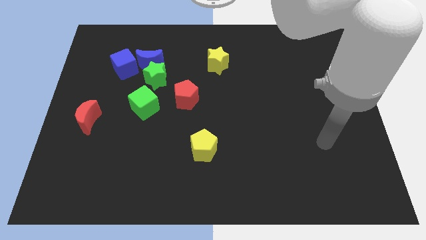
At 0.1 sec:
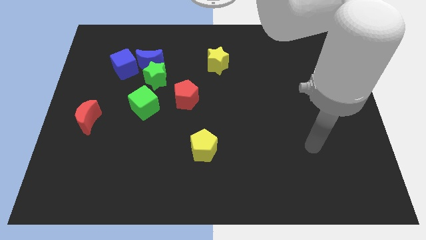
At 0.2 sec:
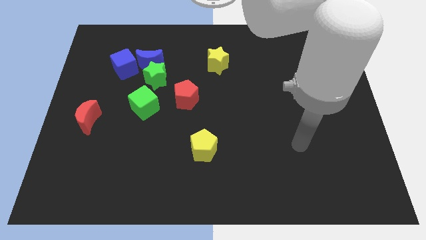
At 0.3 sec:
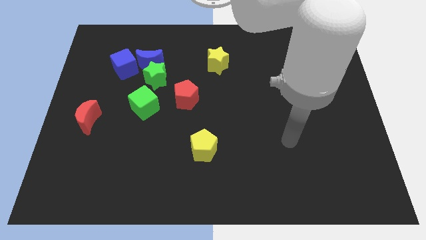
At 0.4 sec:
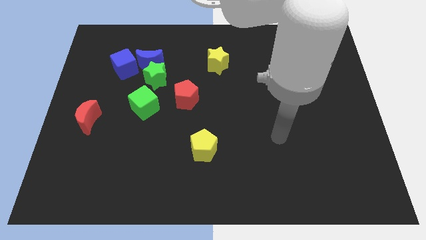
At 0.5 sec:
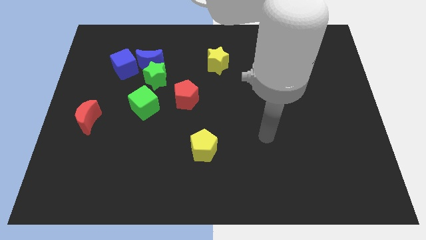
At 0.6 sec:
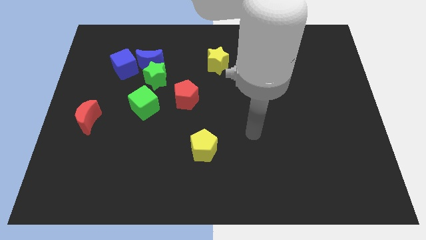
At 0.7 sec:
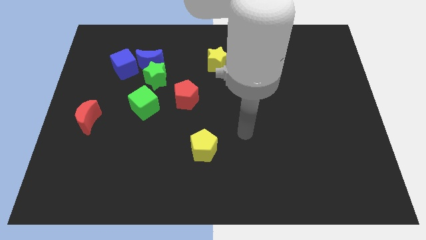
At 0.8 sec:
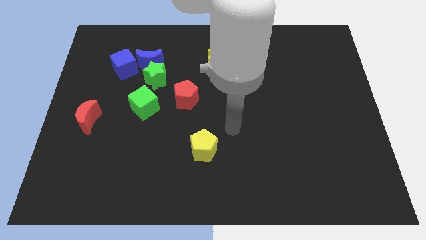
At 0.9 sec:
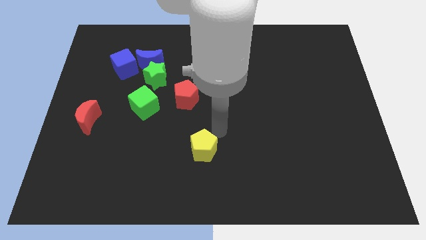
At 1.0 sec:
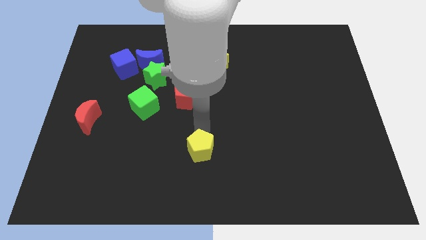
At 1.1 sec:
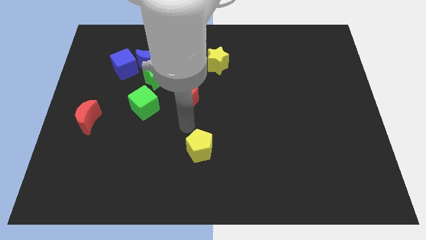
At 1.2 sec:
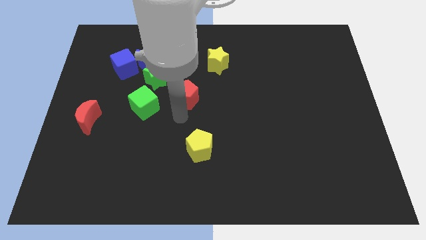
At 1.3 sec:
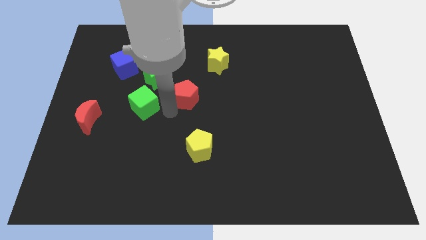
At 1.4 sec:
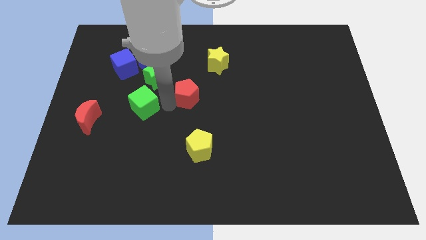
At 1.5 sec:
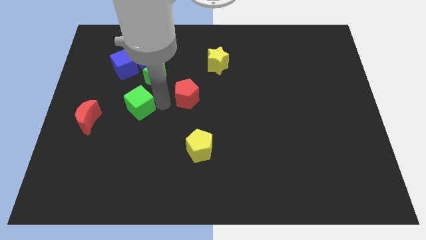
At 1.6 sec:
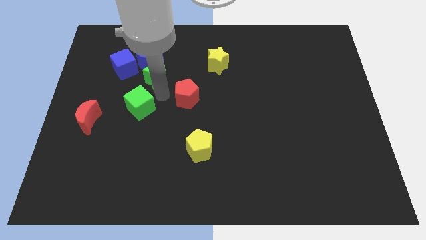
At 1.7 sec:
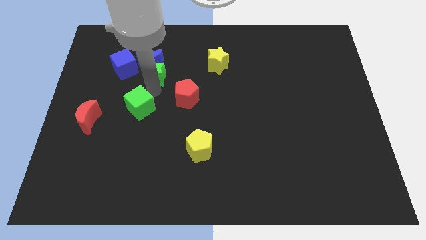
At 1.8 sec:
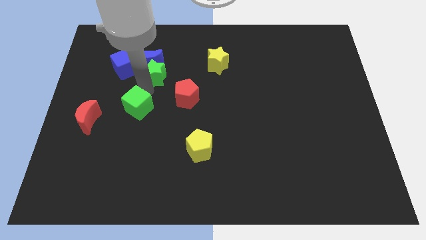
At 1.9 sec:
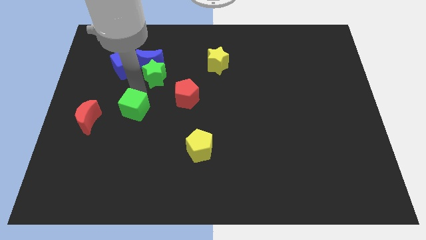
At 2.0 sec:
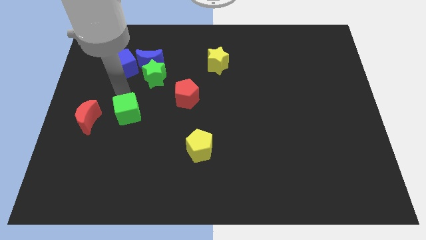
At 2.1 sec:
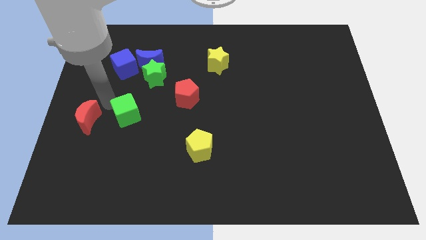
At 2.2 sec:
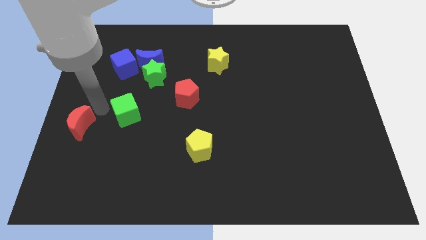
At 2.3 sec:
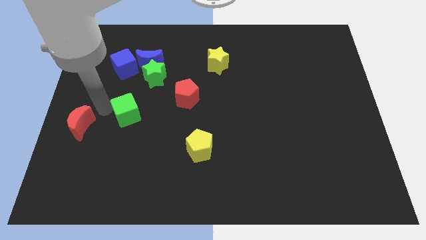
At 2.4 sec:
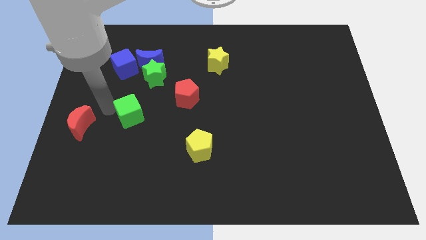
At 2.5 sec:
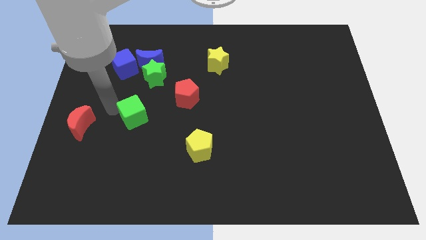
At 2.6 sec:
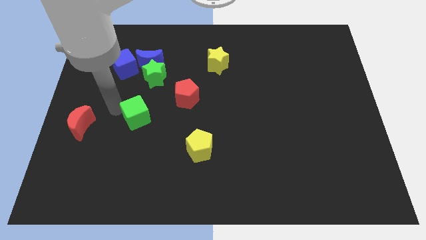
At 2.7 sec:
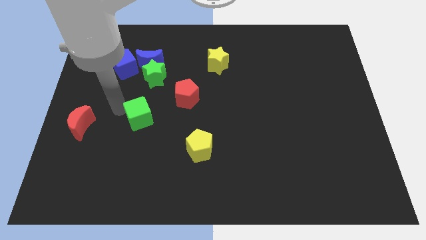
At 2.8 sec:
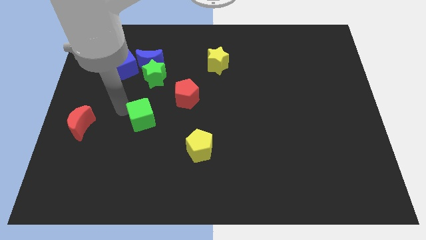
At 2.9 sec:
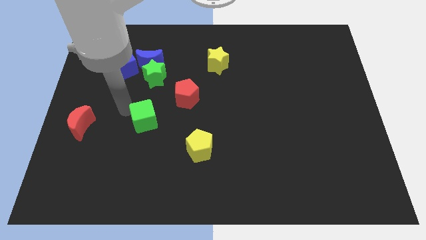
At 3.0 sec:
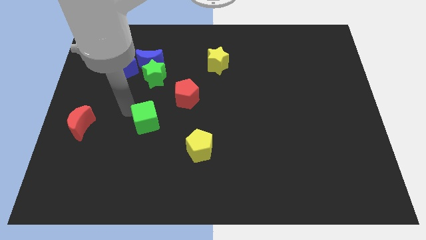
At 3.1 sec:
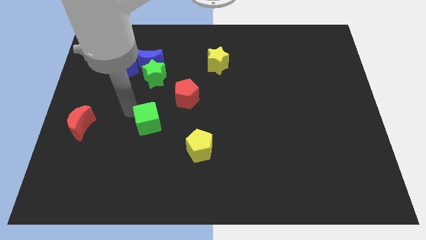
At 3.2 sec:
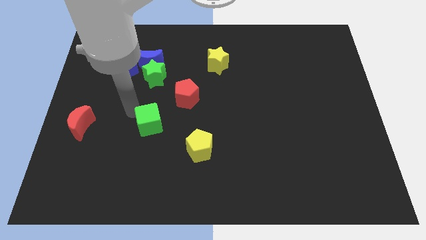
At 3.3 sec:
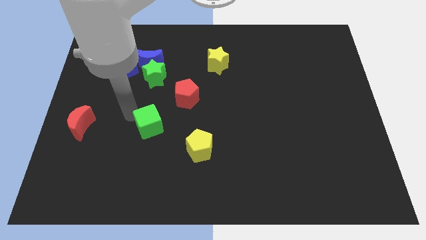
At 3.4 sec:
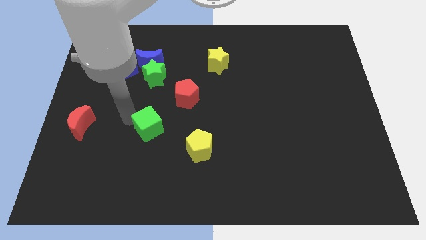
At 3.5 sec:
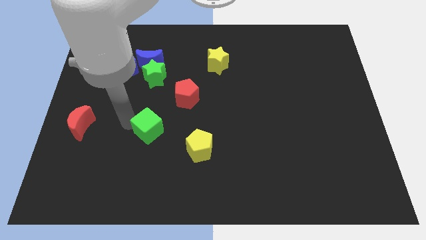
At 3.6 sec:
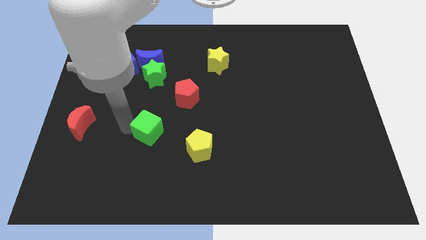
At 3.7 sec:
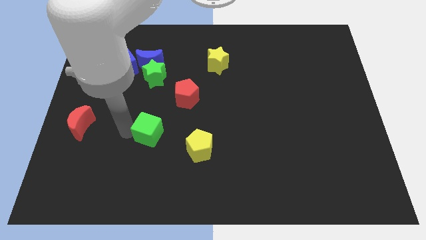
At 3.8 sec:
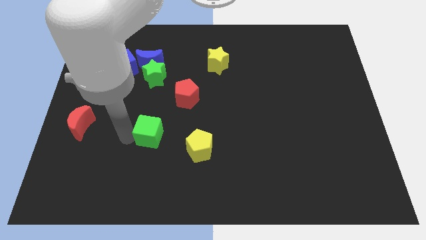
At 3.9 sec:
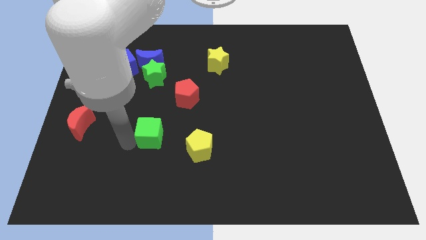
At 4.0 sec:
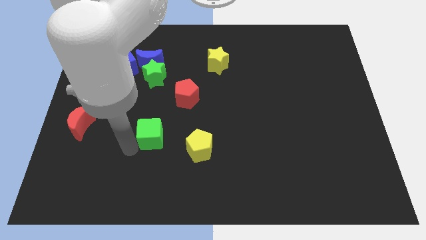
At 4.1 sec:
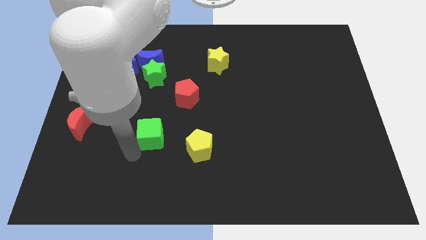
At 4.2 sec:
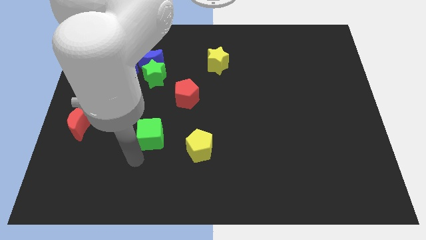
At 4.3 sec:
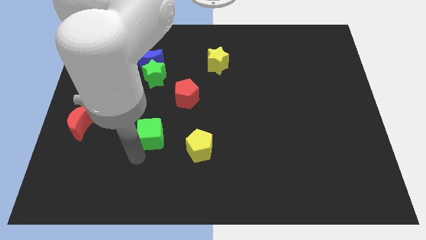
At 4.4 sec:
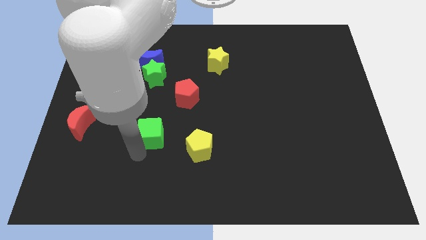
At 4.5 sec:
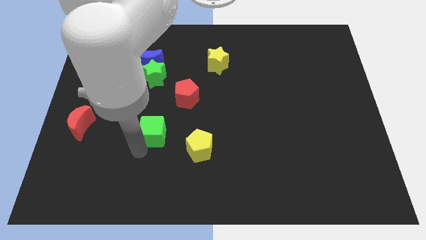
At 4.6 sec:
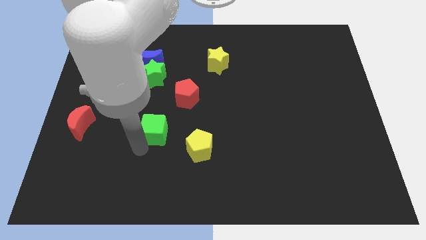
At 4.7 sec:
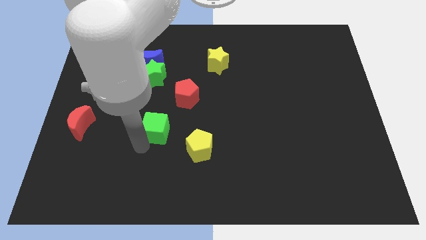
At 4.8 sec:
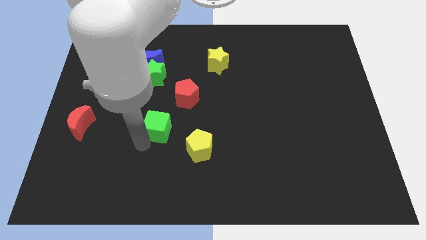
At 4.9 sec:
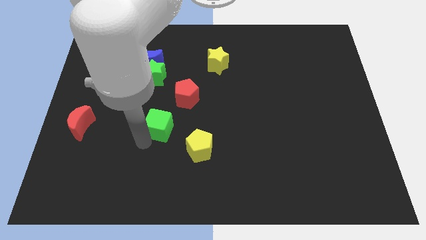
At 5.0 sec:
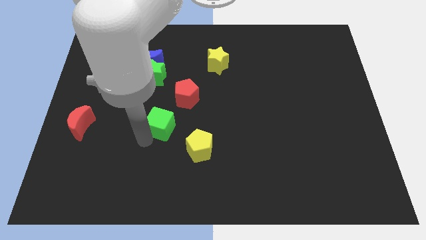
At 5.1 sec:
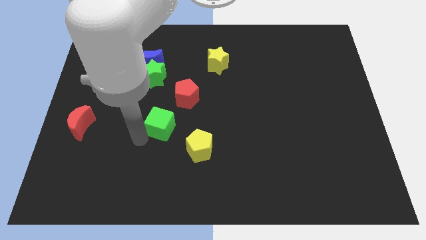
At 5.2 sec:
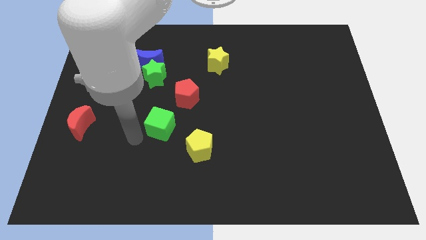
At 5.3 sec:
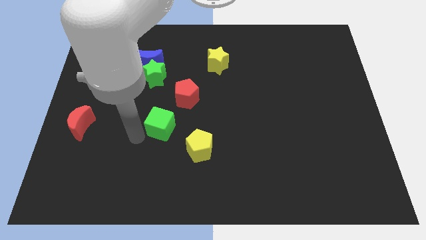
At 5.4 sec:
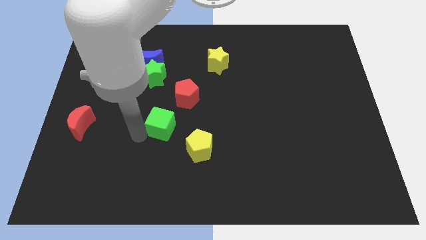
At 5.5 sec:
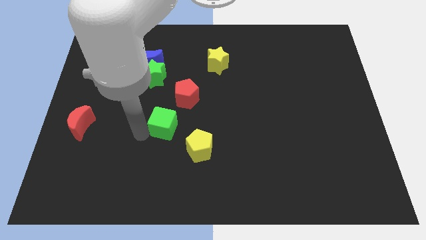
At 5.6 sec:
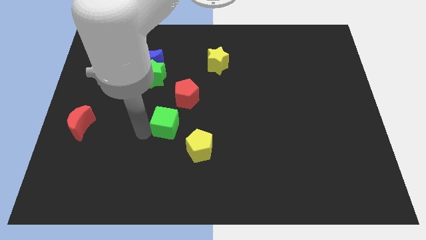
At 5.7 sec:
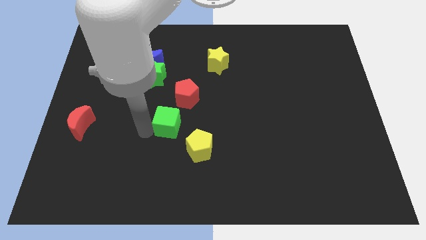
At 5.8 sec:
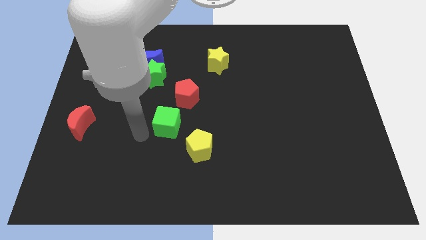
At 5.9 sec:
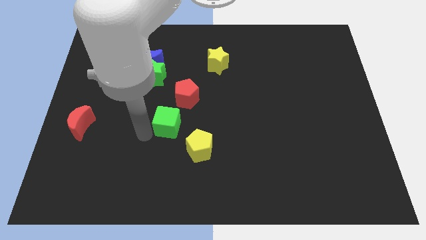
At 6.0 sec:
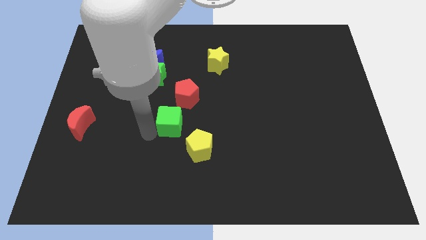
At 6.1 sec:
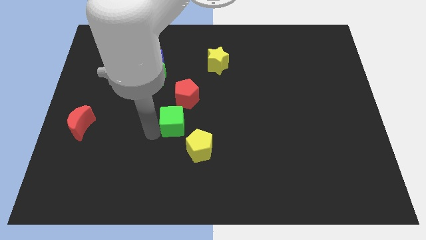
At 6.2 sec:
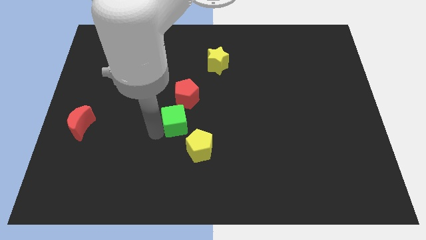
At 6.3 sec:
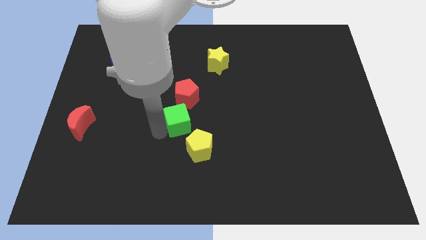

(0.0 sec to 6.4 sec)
slightly slide the green cube right

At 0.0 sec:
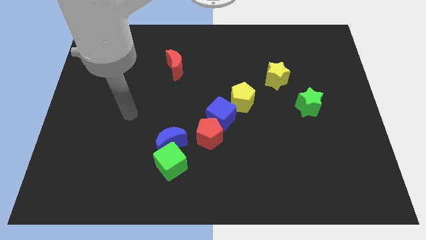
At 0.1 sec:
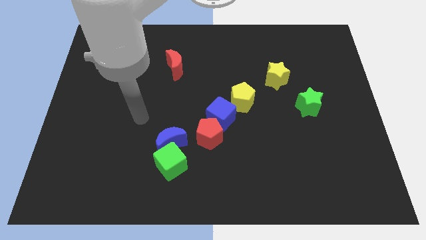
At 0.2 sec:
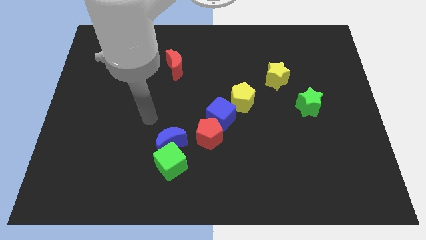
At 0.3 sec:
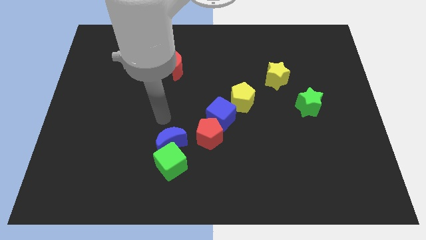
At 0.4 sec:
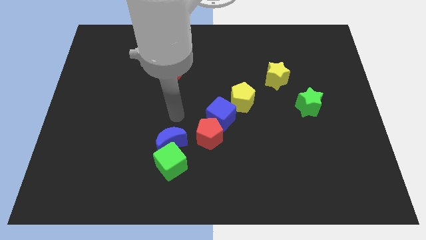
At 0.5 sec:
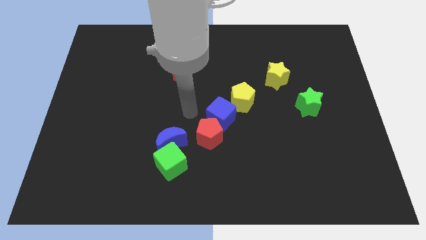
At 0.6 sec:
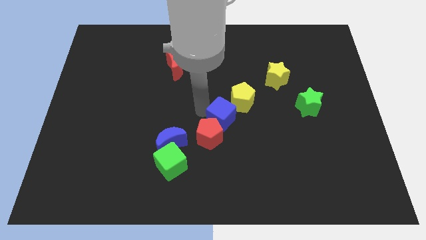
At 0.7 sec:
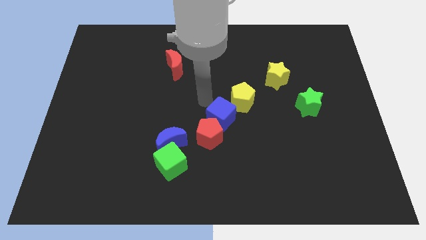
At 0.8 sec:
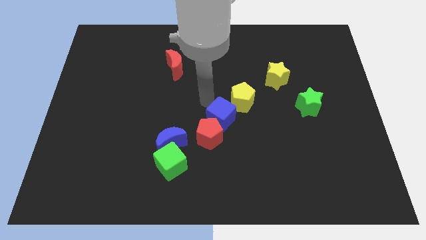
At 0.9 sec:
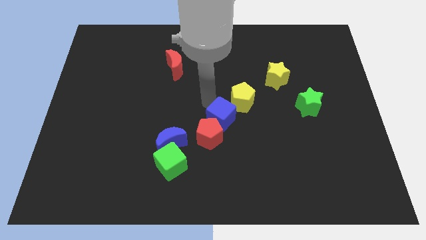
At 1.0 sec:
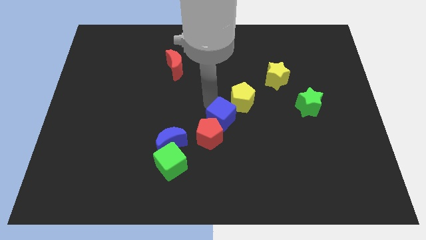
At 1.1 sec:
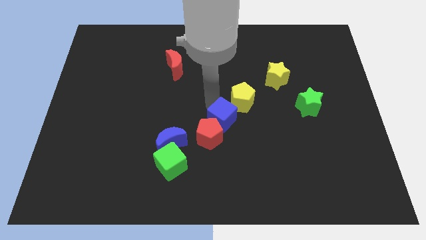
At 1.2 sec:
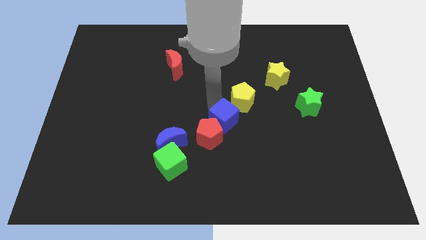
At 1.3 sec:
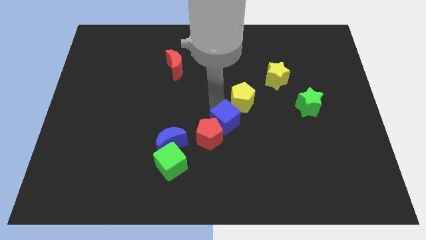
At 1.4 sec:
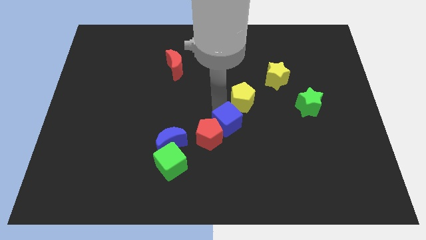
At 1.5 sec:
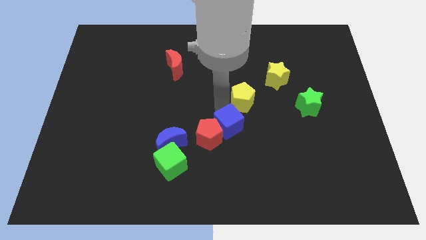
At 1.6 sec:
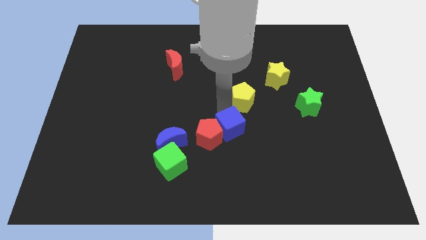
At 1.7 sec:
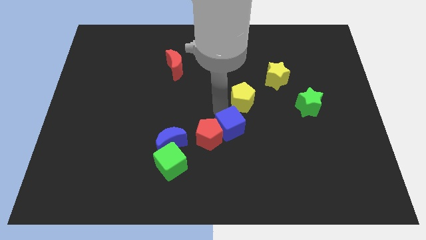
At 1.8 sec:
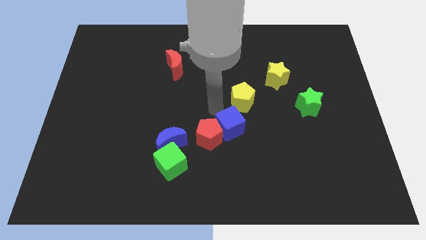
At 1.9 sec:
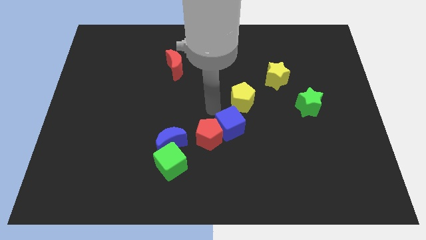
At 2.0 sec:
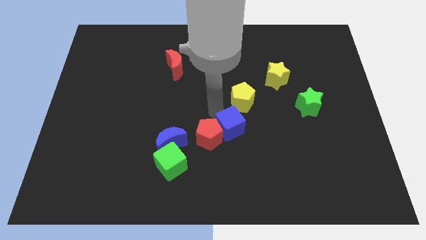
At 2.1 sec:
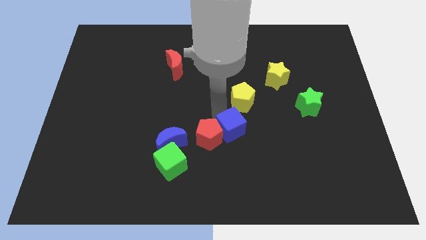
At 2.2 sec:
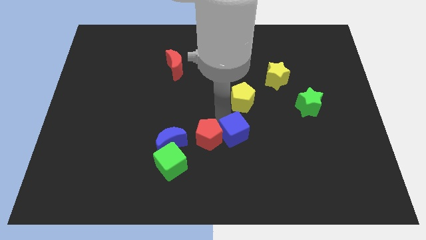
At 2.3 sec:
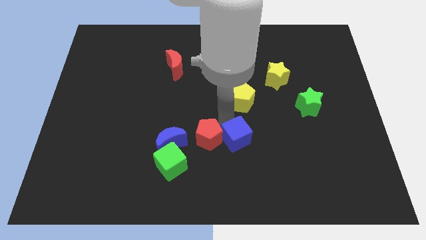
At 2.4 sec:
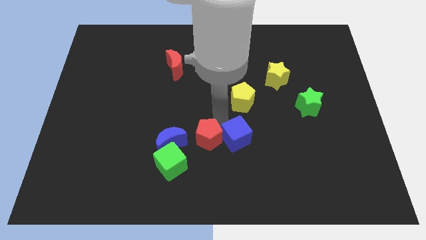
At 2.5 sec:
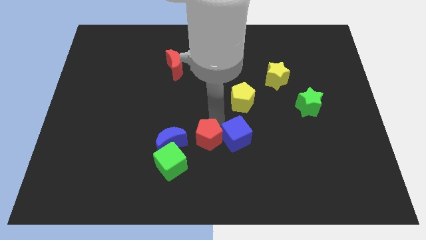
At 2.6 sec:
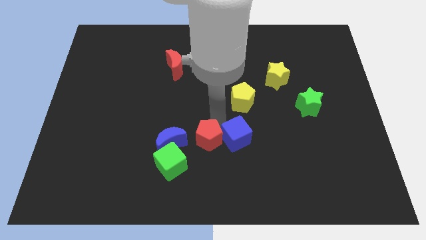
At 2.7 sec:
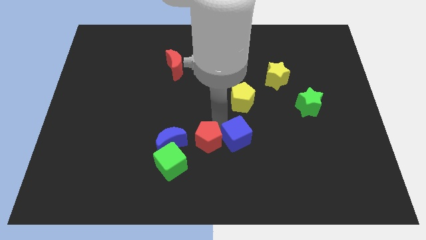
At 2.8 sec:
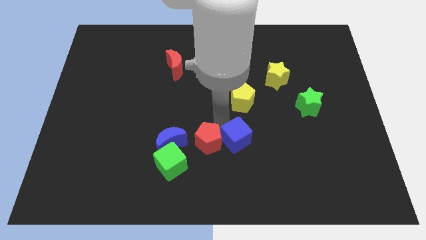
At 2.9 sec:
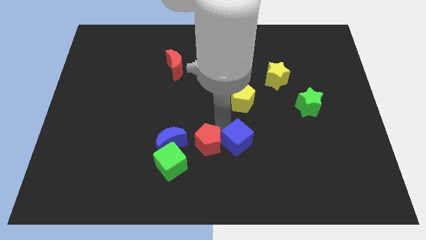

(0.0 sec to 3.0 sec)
move the blue cube a little down and right diagonally
